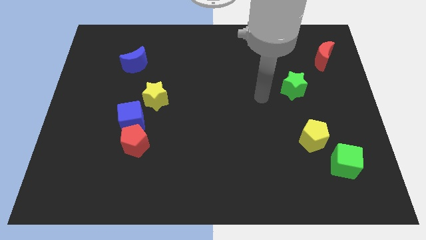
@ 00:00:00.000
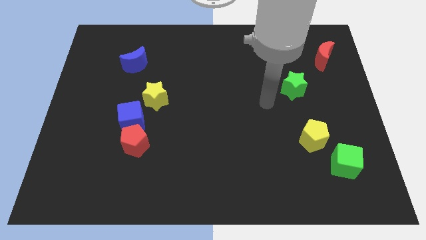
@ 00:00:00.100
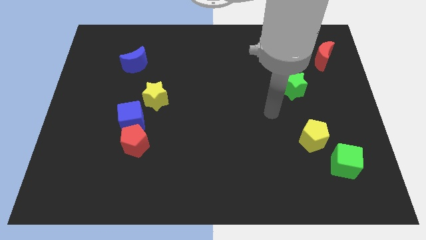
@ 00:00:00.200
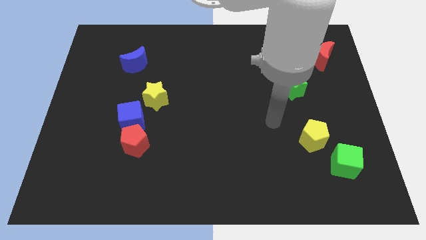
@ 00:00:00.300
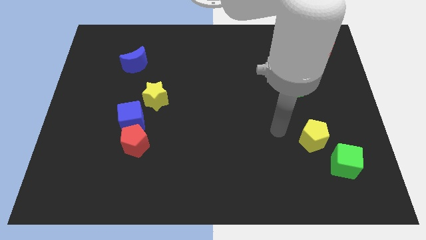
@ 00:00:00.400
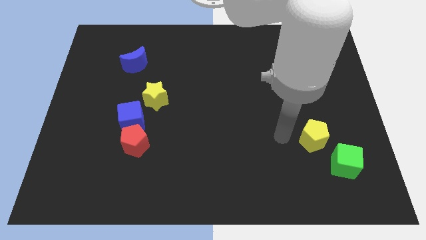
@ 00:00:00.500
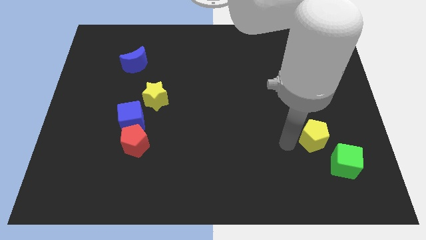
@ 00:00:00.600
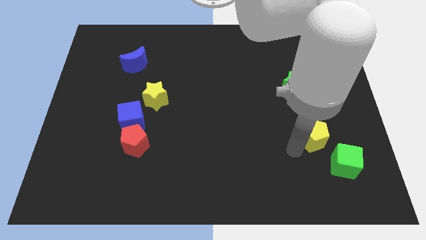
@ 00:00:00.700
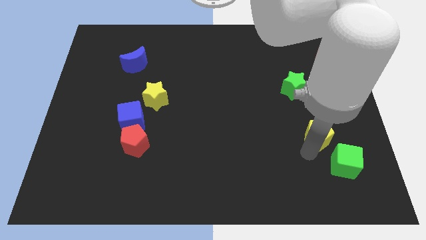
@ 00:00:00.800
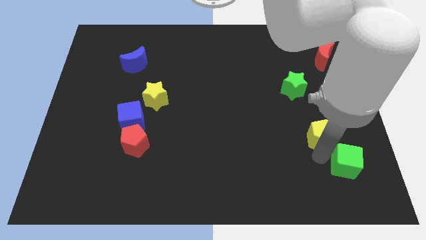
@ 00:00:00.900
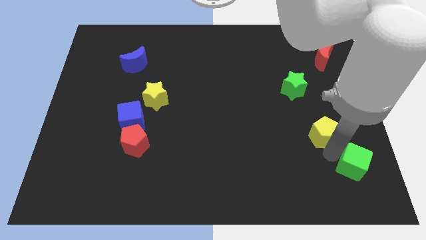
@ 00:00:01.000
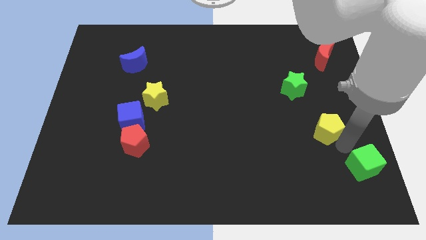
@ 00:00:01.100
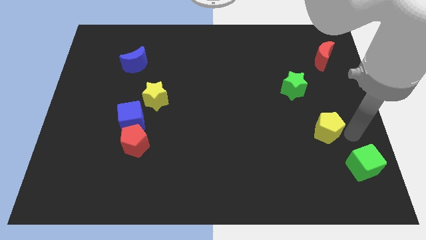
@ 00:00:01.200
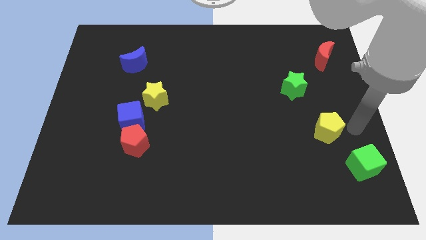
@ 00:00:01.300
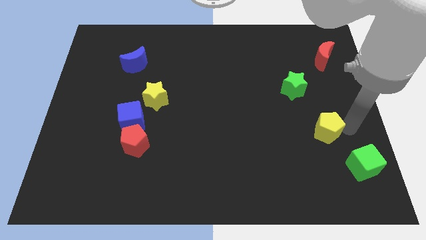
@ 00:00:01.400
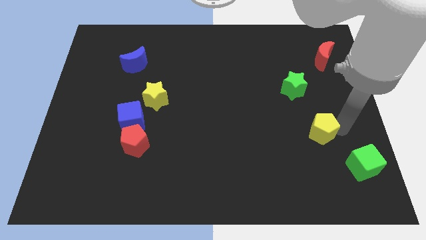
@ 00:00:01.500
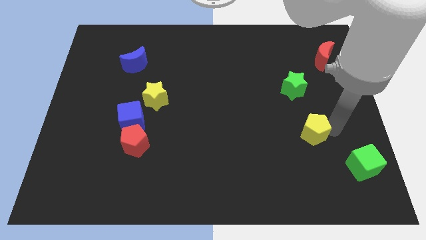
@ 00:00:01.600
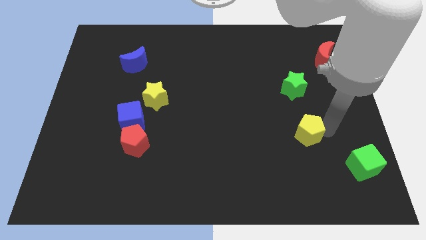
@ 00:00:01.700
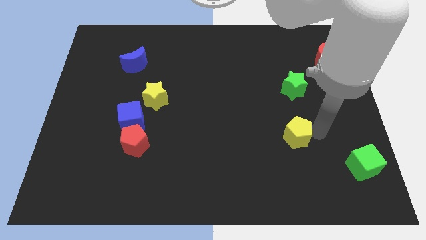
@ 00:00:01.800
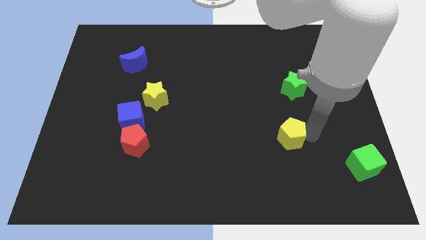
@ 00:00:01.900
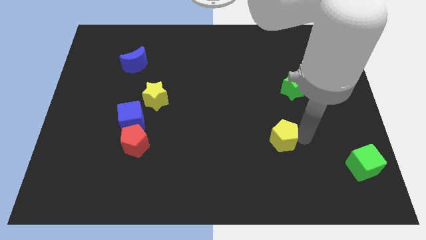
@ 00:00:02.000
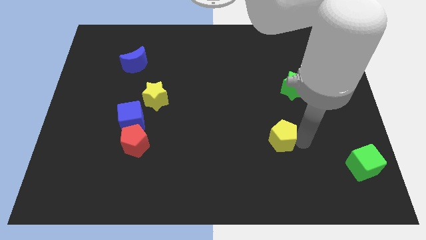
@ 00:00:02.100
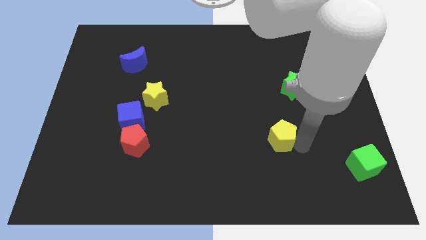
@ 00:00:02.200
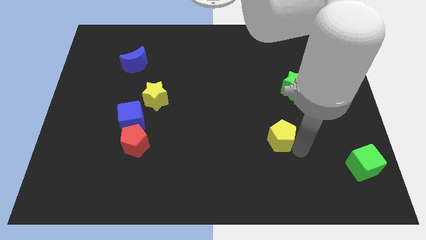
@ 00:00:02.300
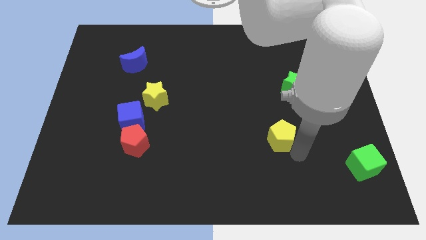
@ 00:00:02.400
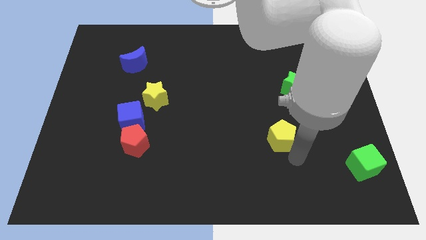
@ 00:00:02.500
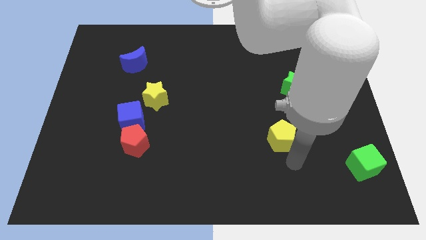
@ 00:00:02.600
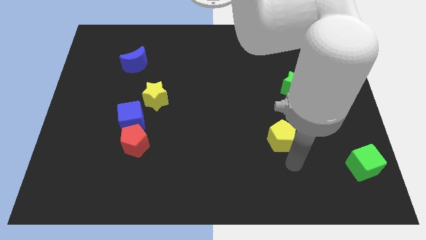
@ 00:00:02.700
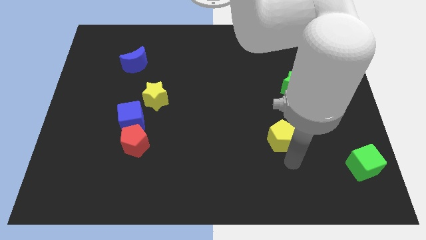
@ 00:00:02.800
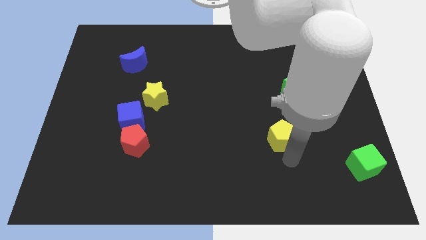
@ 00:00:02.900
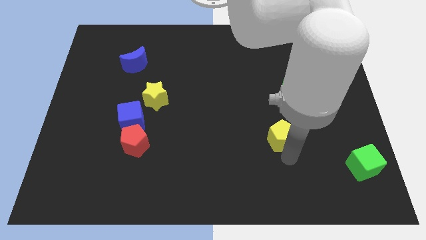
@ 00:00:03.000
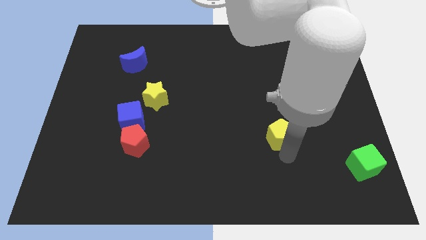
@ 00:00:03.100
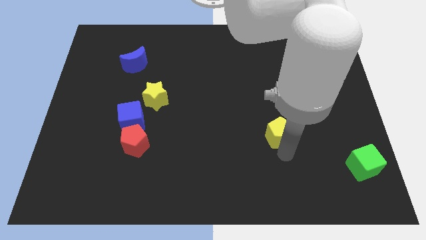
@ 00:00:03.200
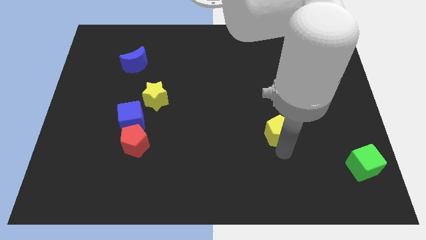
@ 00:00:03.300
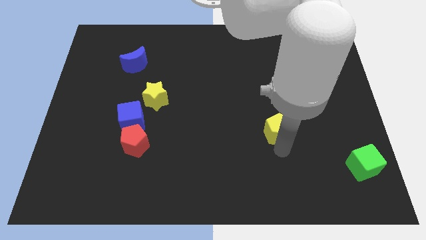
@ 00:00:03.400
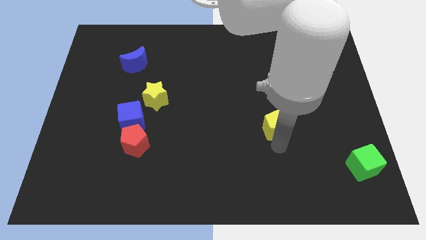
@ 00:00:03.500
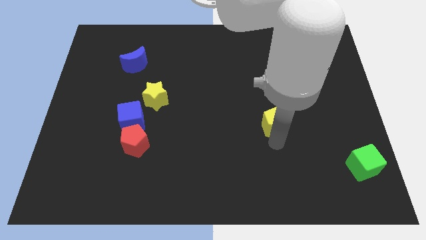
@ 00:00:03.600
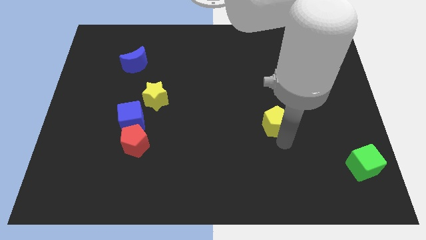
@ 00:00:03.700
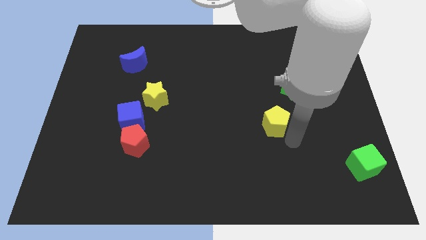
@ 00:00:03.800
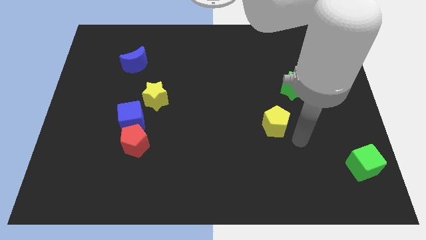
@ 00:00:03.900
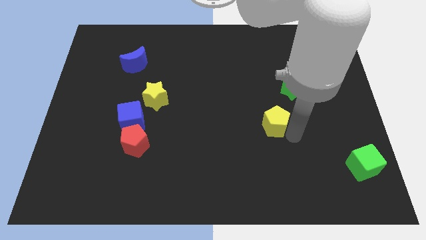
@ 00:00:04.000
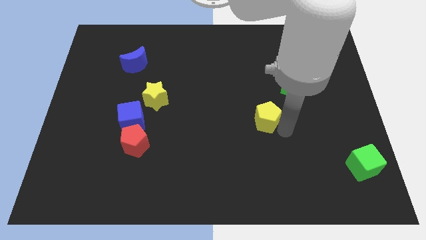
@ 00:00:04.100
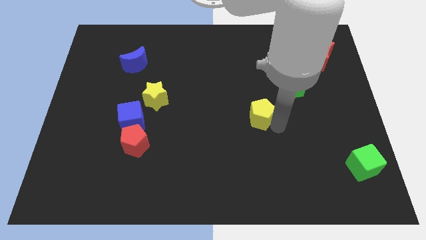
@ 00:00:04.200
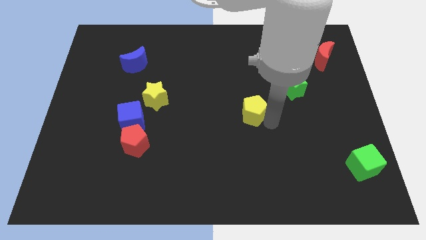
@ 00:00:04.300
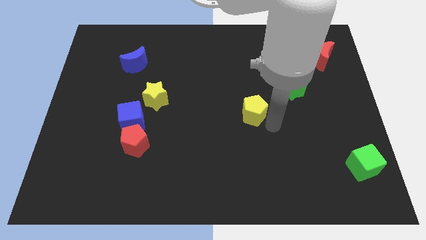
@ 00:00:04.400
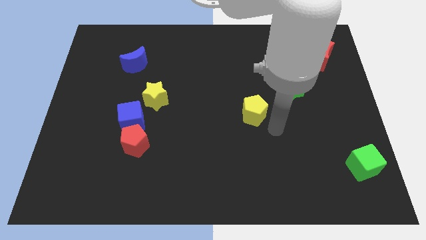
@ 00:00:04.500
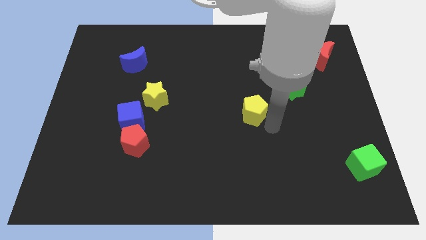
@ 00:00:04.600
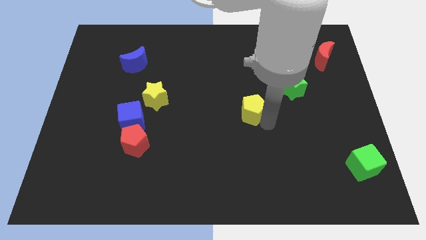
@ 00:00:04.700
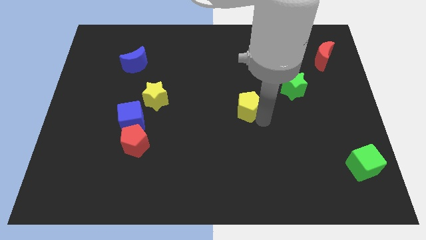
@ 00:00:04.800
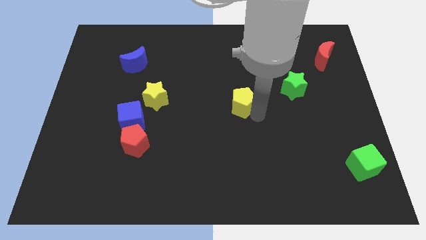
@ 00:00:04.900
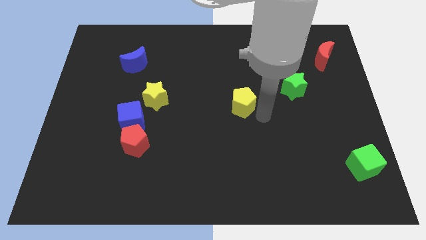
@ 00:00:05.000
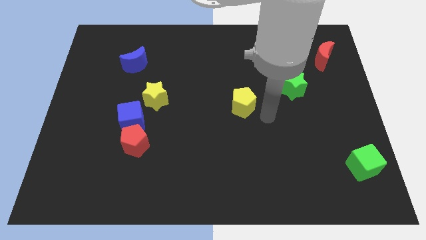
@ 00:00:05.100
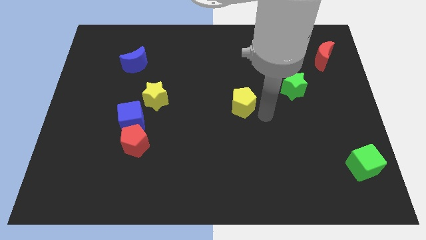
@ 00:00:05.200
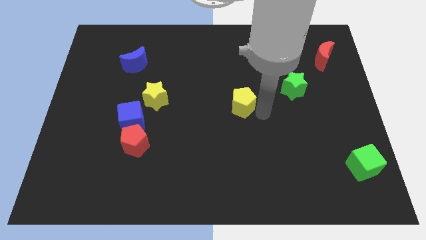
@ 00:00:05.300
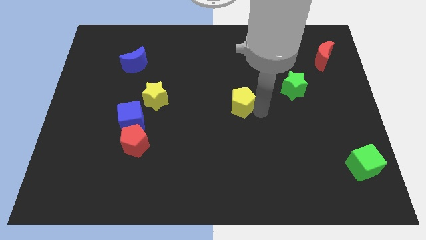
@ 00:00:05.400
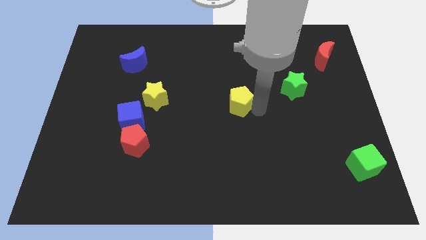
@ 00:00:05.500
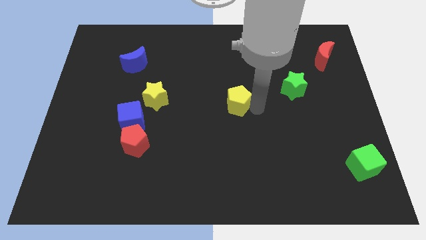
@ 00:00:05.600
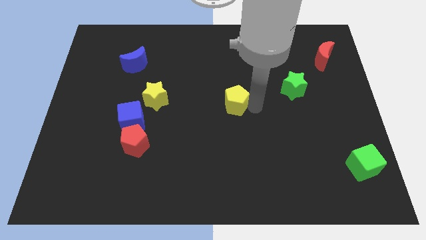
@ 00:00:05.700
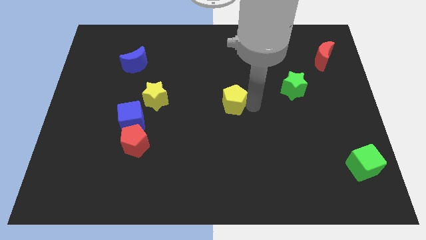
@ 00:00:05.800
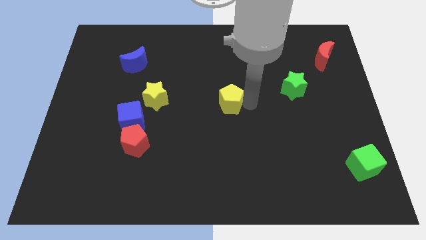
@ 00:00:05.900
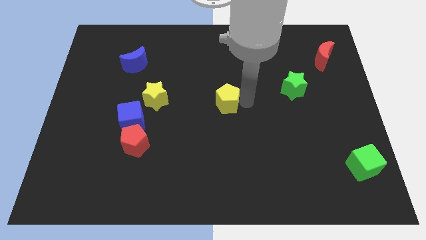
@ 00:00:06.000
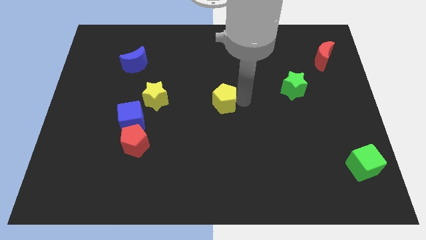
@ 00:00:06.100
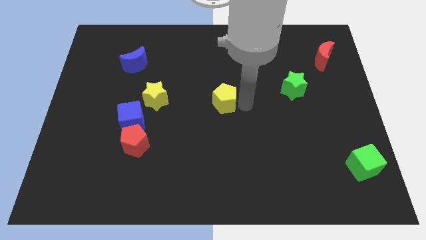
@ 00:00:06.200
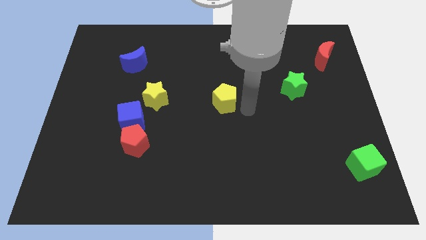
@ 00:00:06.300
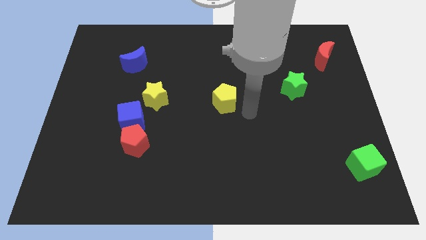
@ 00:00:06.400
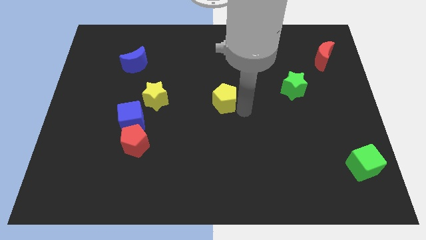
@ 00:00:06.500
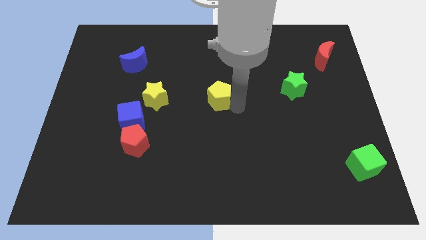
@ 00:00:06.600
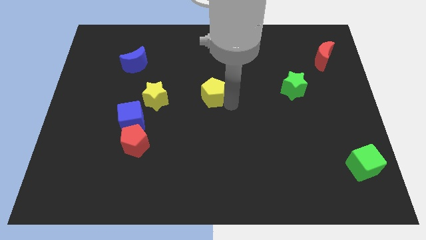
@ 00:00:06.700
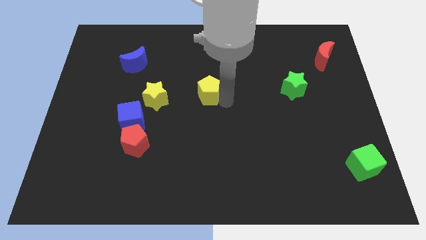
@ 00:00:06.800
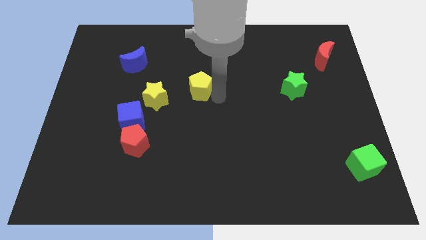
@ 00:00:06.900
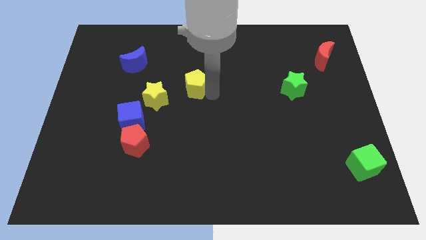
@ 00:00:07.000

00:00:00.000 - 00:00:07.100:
push the yellow pentagon to the top right of the yellow star
